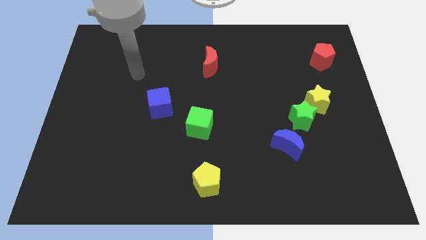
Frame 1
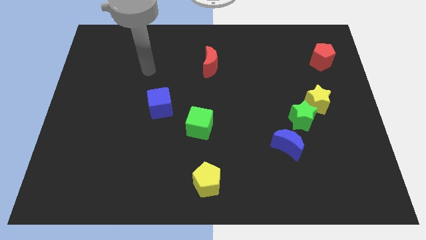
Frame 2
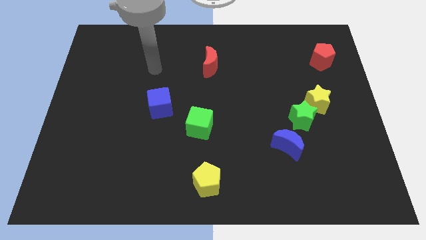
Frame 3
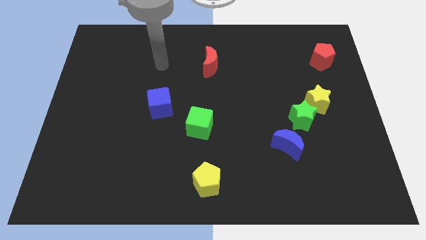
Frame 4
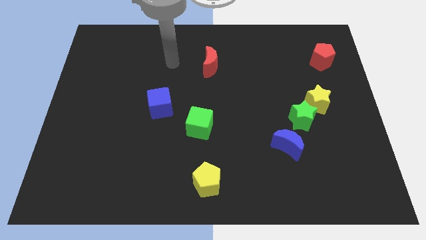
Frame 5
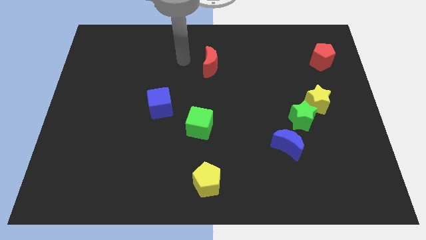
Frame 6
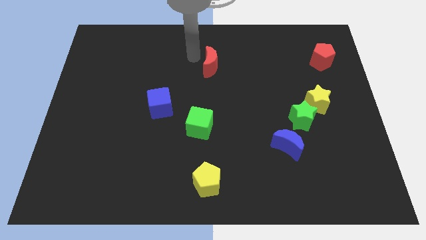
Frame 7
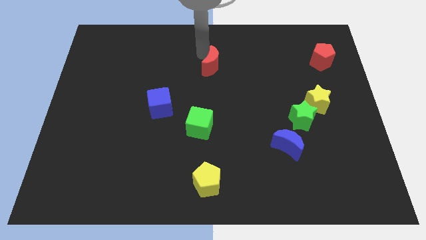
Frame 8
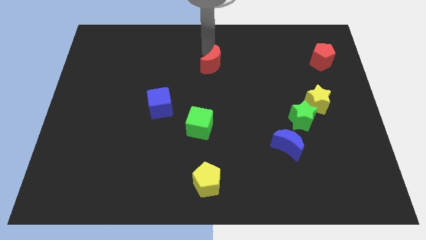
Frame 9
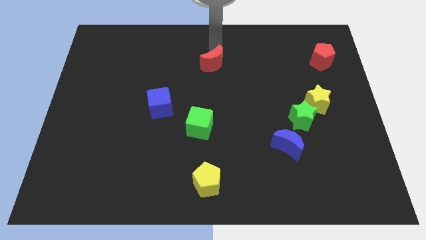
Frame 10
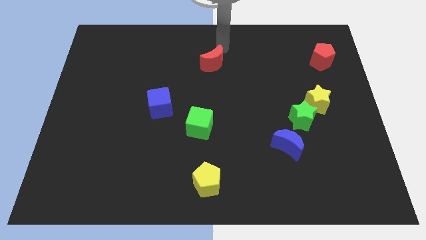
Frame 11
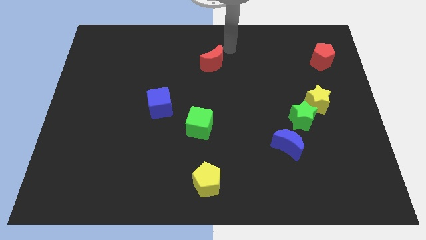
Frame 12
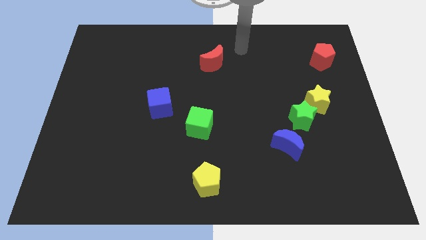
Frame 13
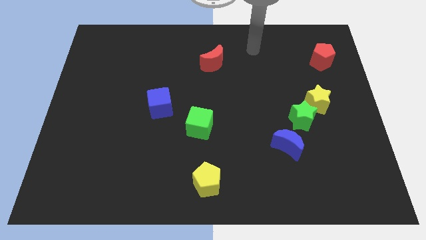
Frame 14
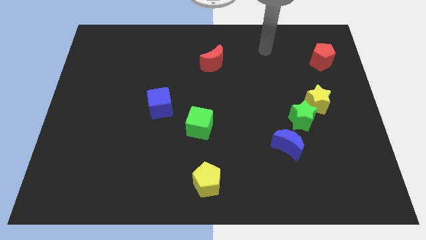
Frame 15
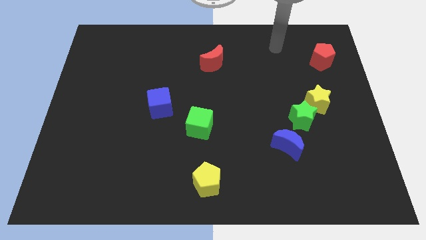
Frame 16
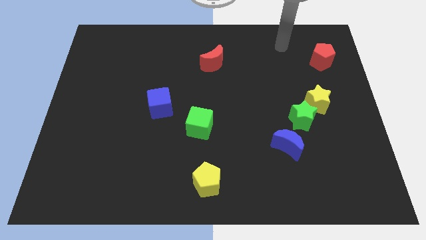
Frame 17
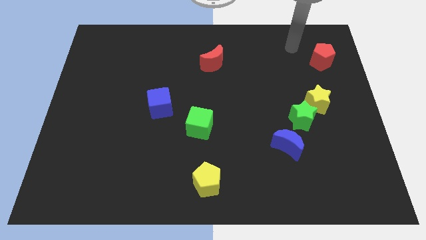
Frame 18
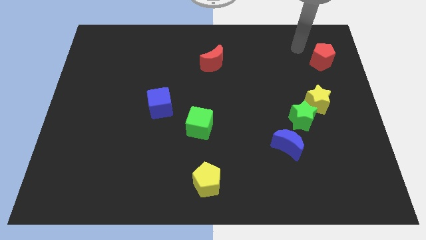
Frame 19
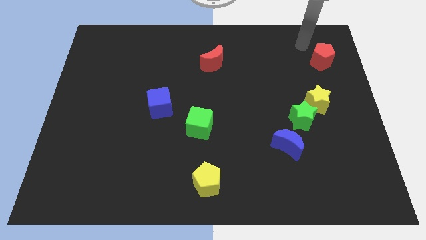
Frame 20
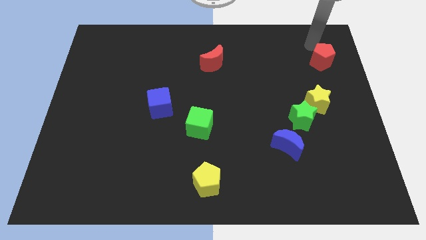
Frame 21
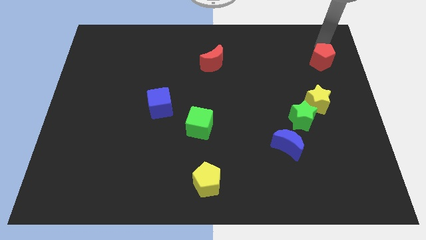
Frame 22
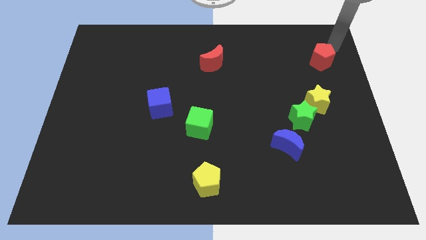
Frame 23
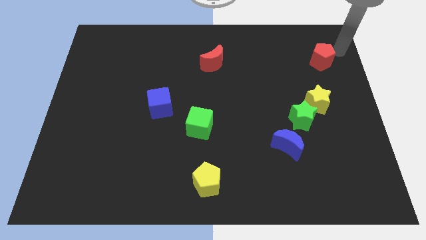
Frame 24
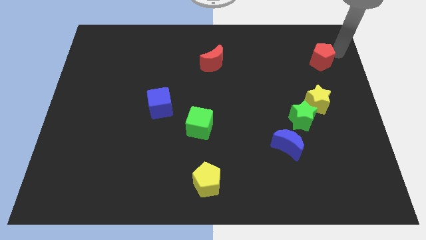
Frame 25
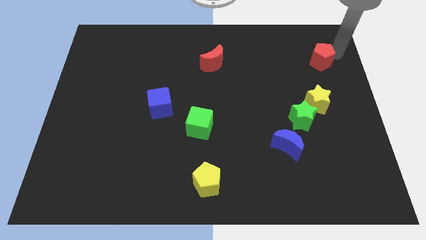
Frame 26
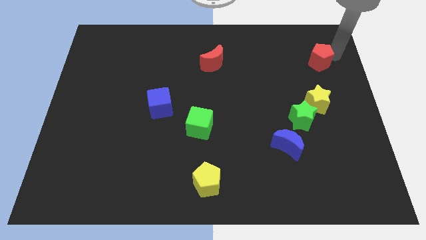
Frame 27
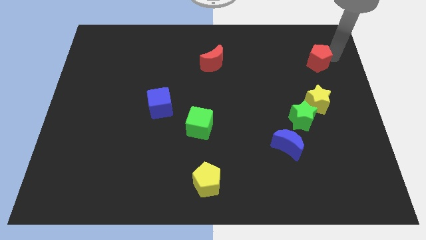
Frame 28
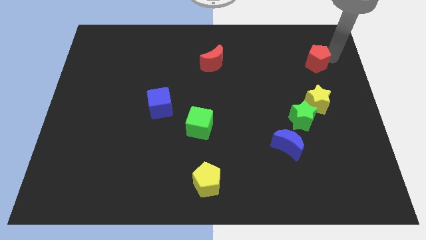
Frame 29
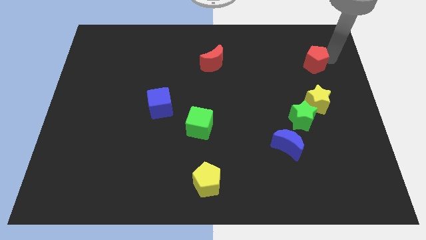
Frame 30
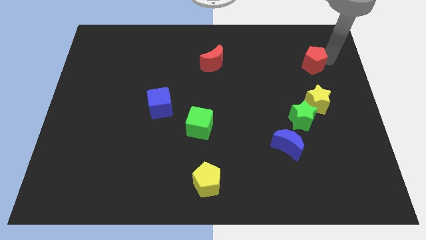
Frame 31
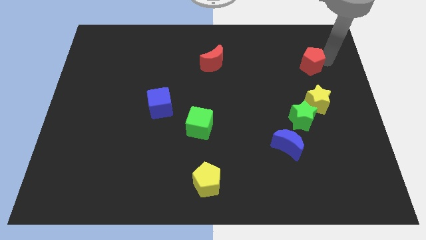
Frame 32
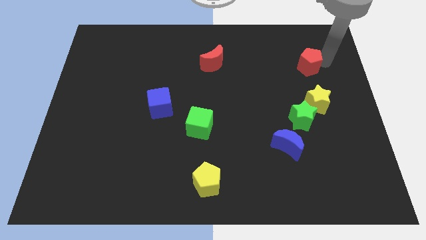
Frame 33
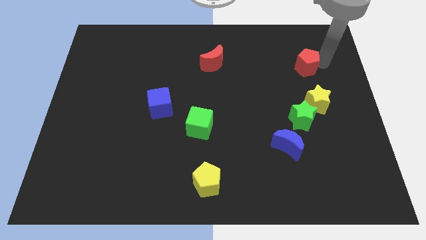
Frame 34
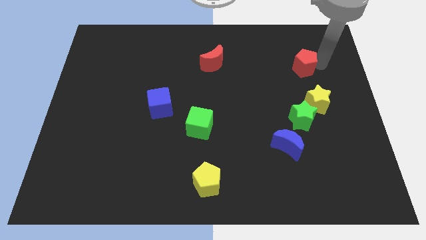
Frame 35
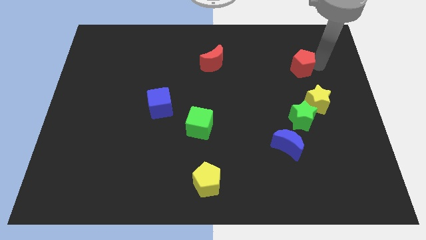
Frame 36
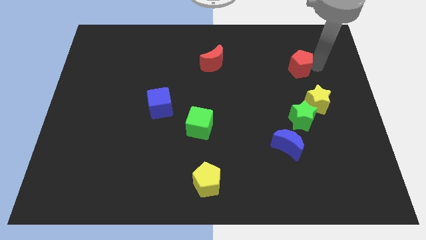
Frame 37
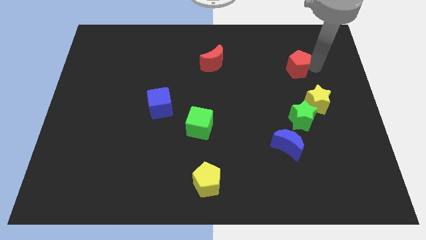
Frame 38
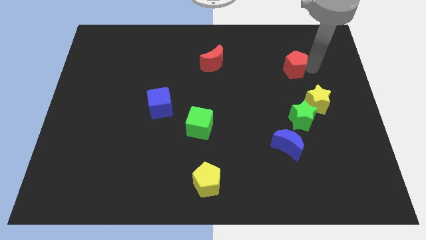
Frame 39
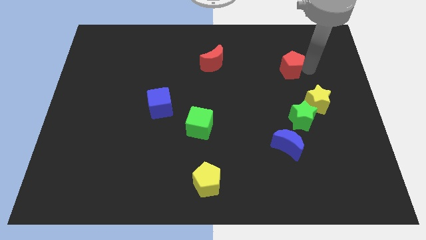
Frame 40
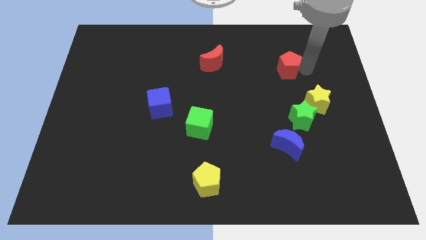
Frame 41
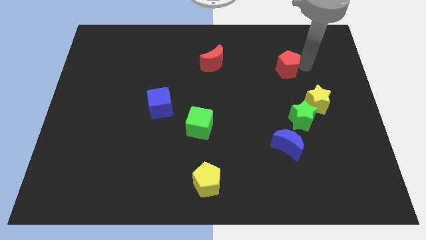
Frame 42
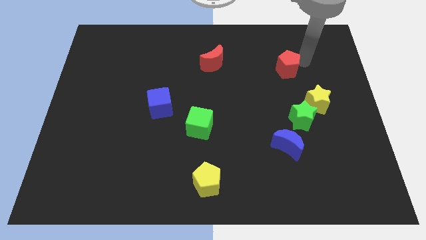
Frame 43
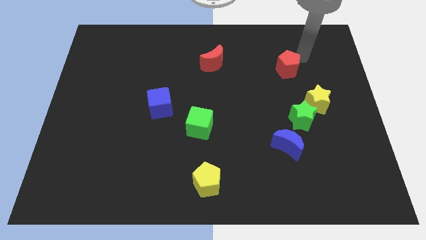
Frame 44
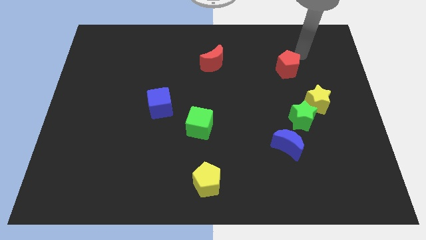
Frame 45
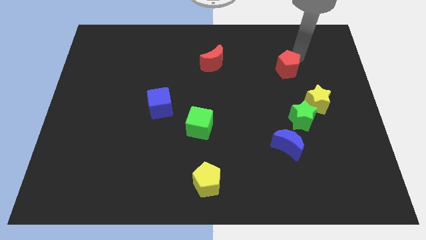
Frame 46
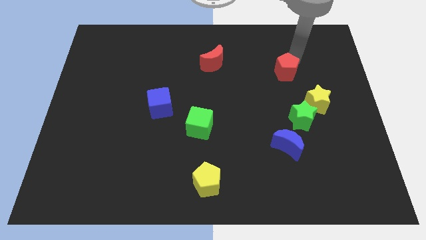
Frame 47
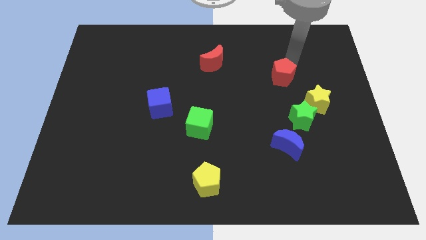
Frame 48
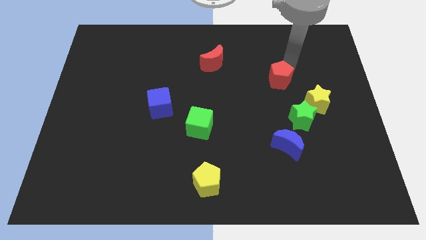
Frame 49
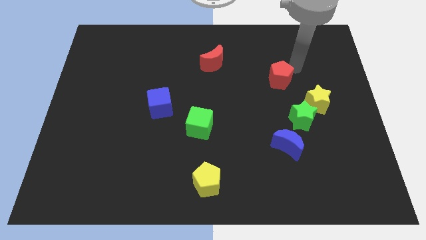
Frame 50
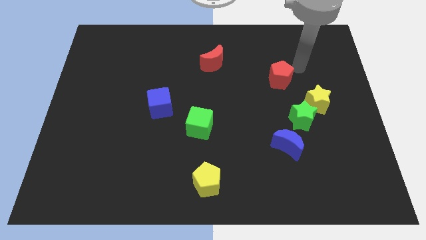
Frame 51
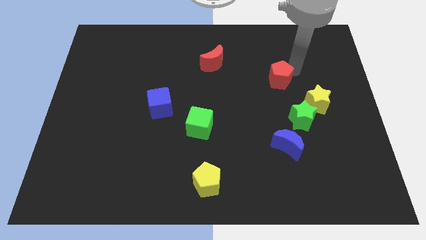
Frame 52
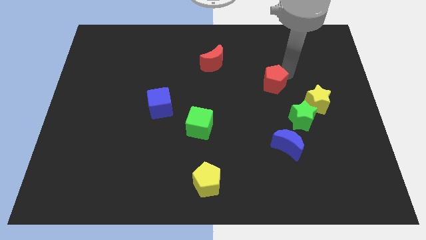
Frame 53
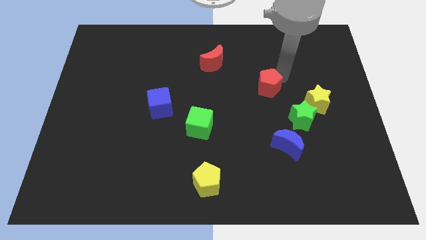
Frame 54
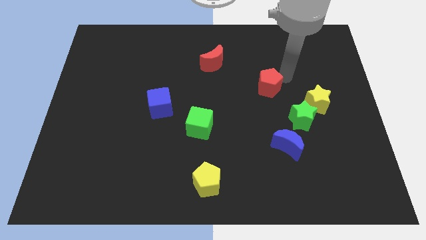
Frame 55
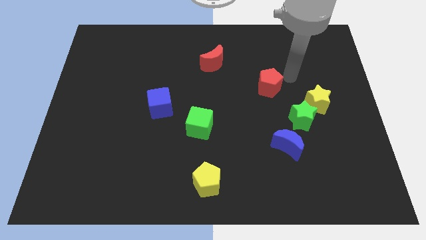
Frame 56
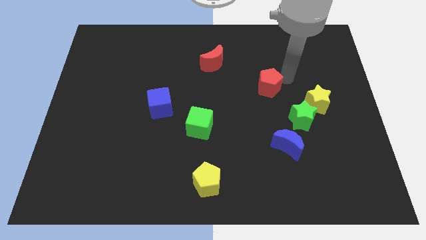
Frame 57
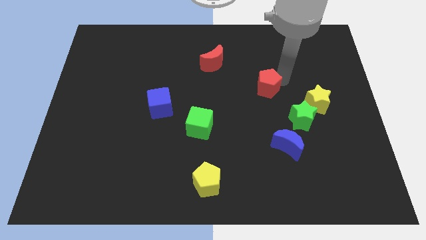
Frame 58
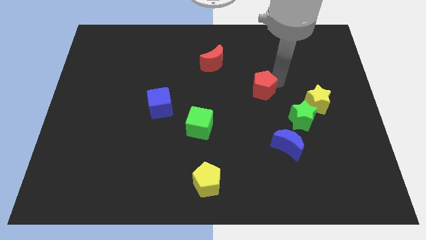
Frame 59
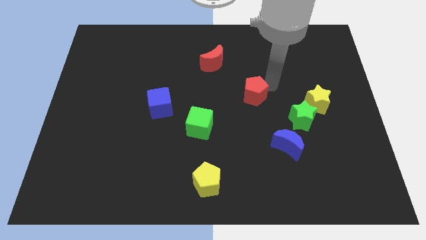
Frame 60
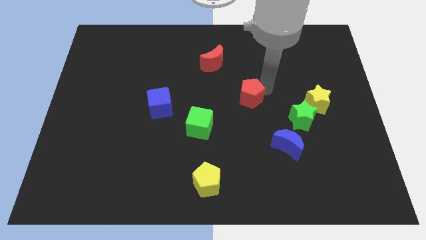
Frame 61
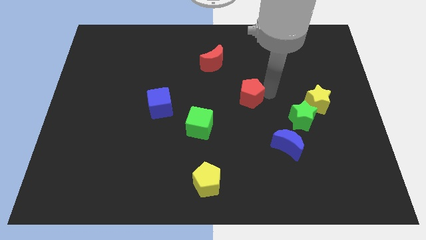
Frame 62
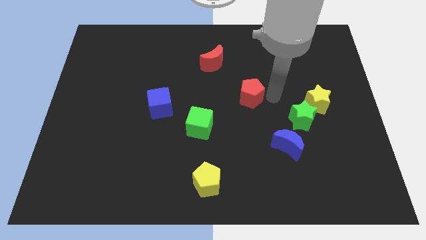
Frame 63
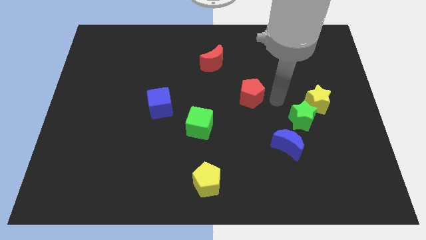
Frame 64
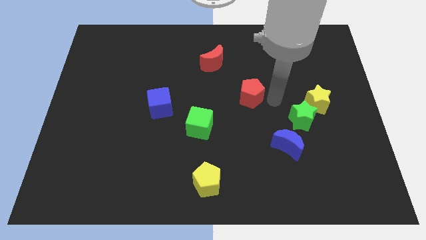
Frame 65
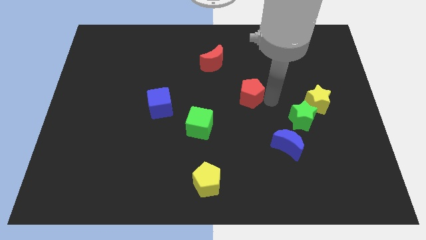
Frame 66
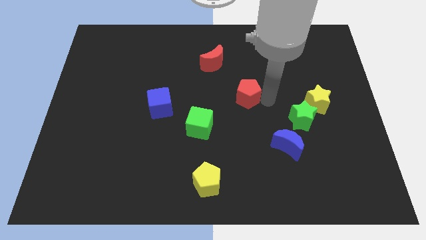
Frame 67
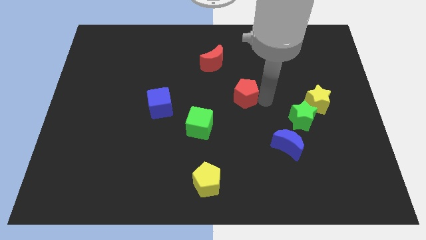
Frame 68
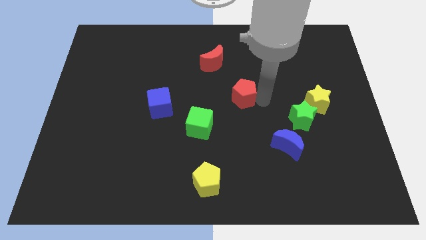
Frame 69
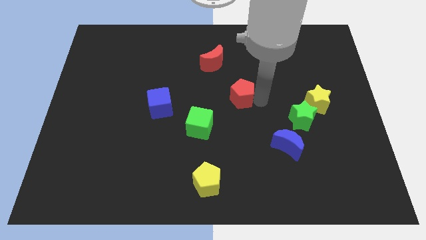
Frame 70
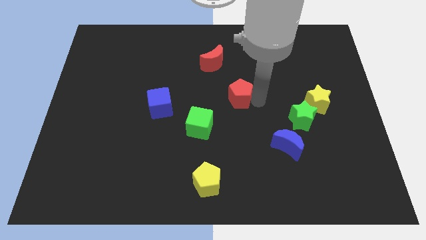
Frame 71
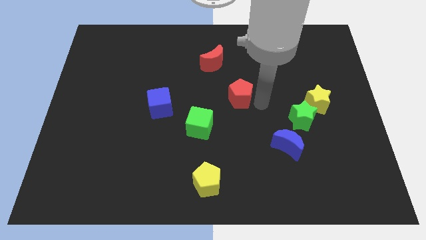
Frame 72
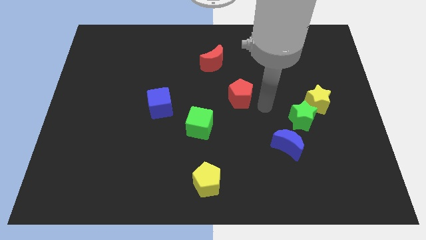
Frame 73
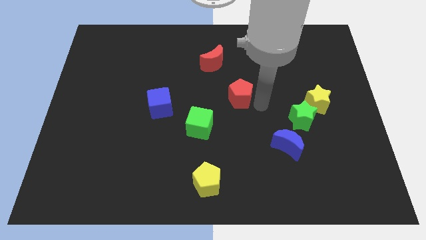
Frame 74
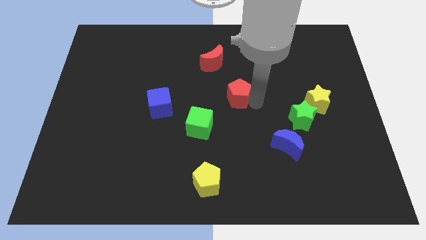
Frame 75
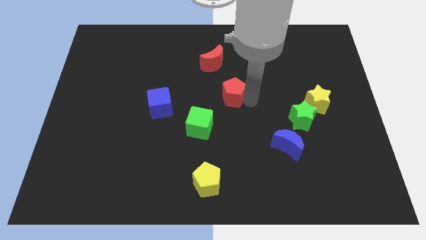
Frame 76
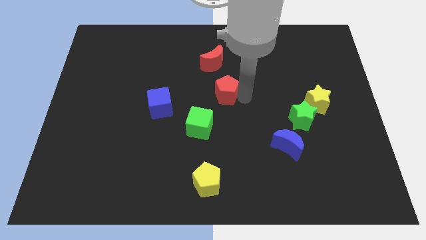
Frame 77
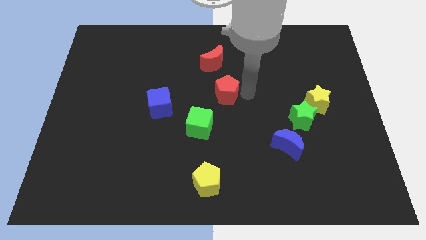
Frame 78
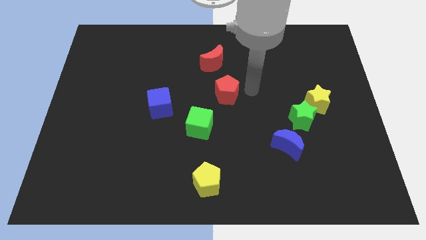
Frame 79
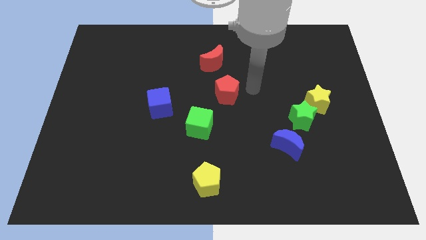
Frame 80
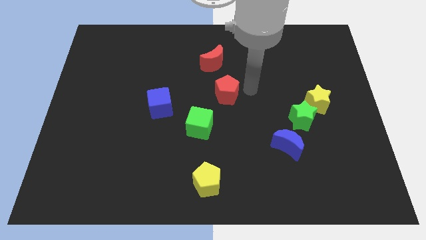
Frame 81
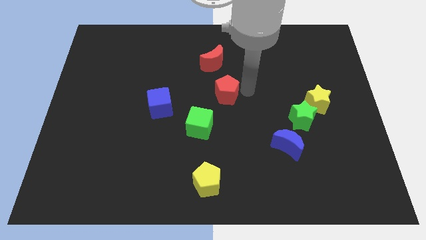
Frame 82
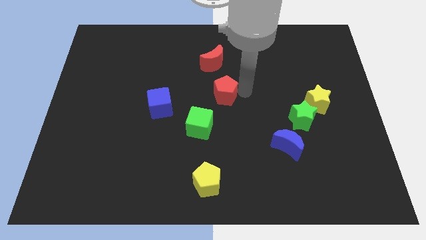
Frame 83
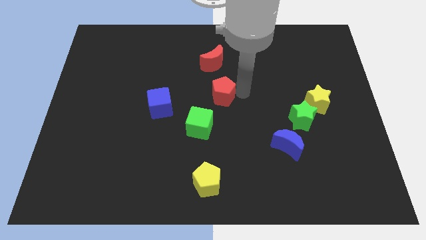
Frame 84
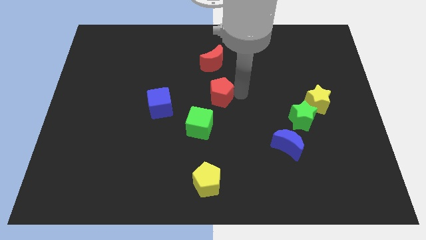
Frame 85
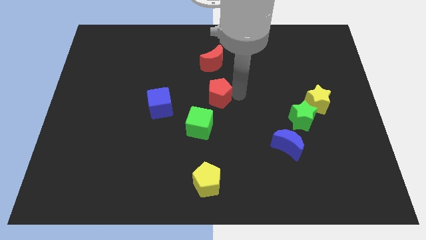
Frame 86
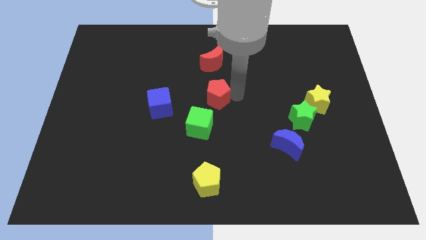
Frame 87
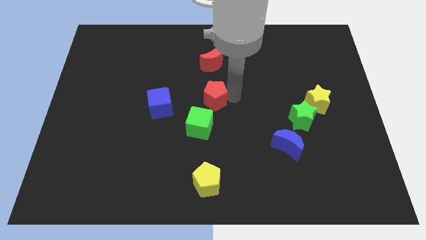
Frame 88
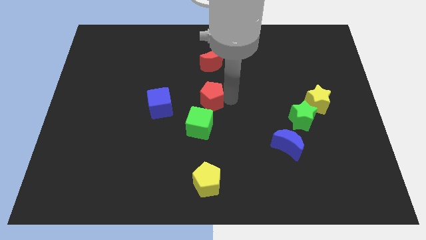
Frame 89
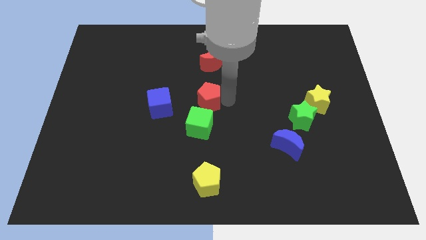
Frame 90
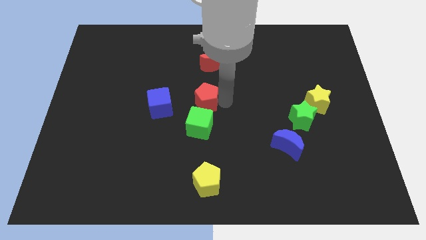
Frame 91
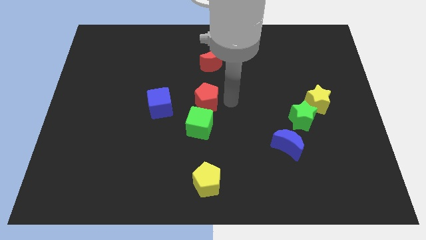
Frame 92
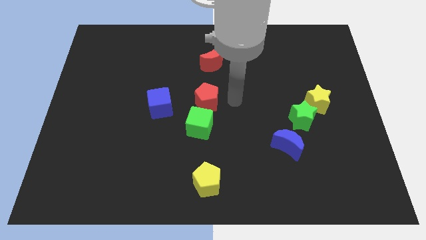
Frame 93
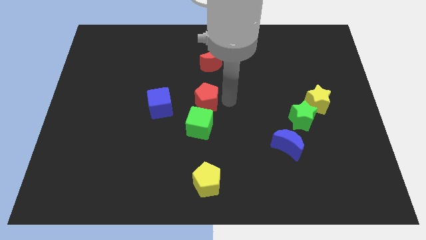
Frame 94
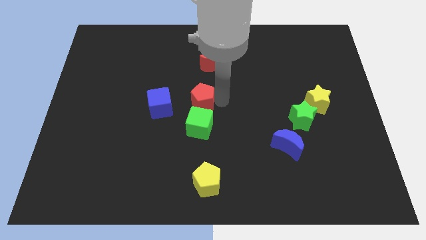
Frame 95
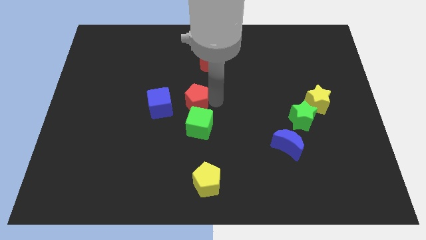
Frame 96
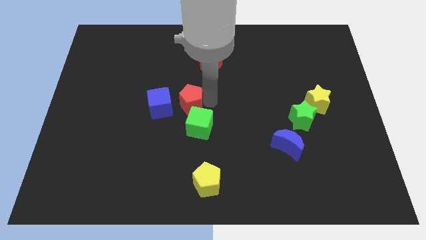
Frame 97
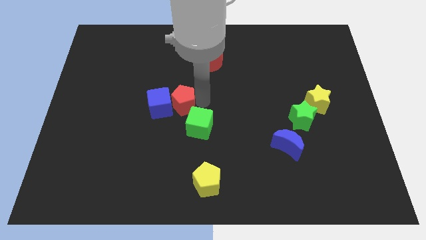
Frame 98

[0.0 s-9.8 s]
push the red pentagon next to the blue cube
